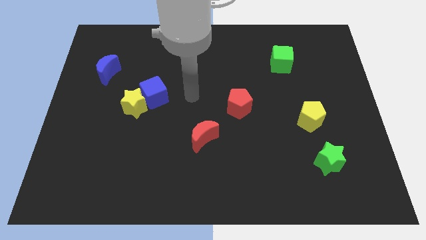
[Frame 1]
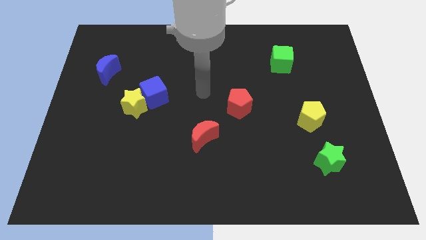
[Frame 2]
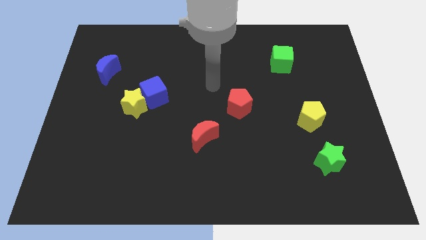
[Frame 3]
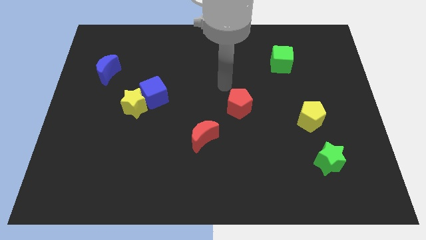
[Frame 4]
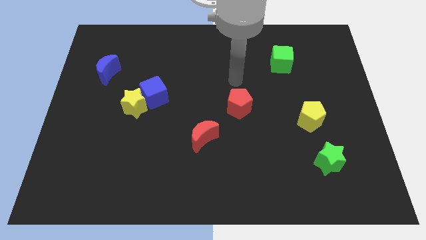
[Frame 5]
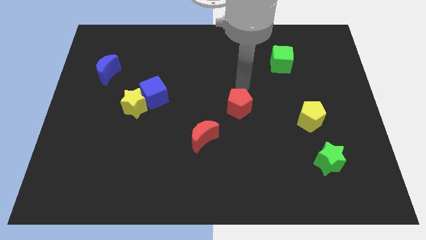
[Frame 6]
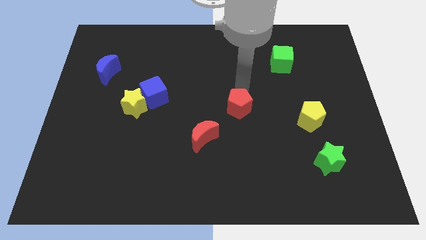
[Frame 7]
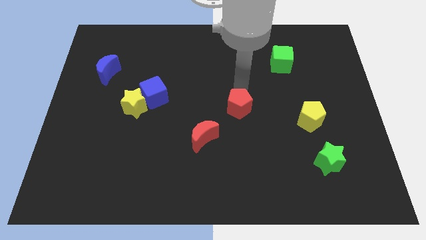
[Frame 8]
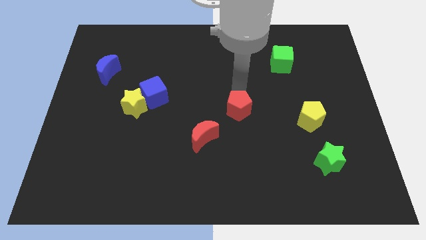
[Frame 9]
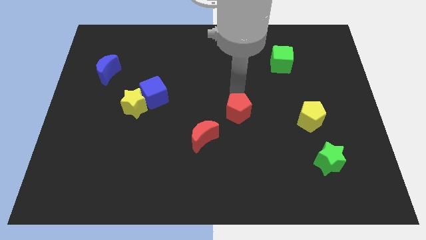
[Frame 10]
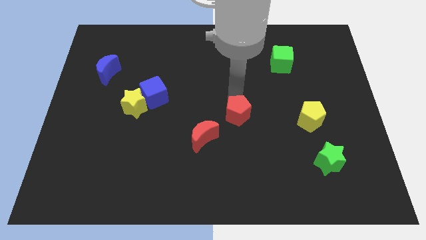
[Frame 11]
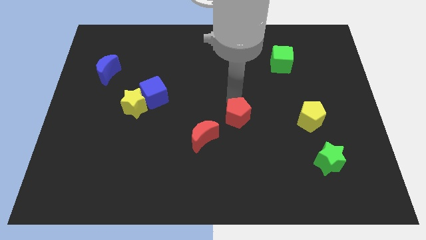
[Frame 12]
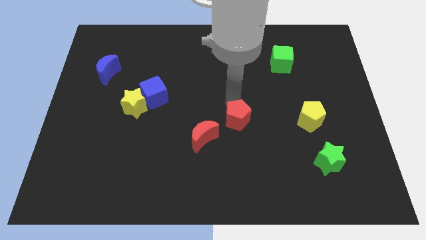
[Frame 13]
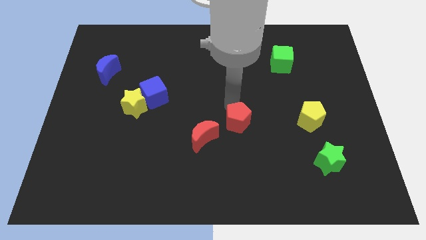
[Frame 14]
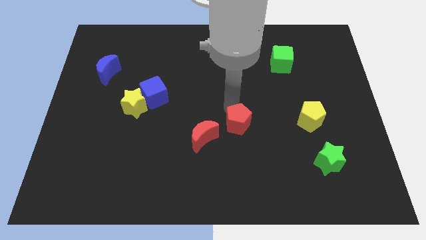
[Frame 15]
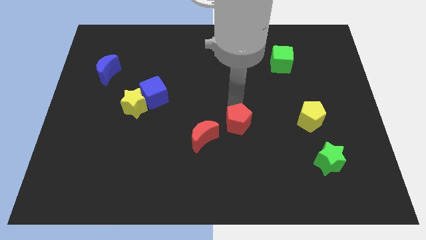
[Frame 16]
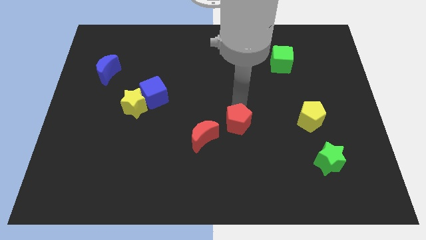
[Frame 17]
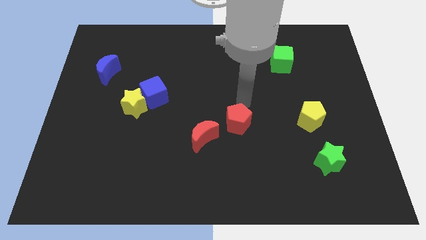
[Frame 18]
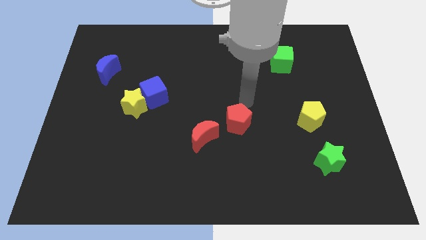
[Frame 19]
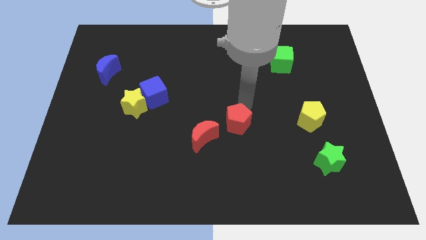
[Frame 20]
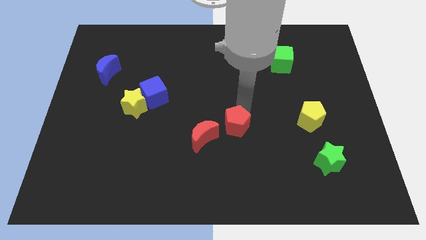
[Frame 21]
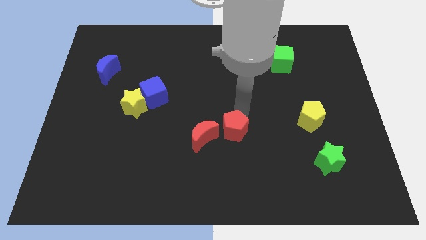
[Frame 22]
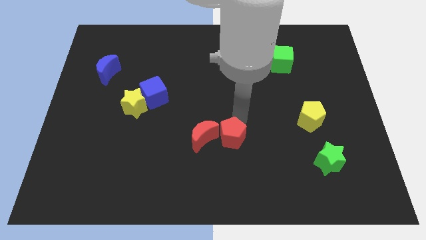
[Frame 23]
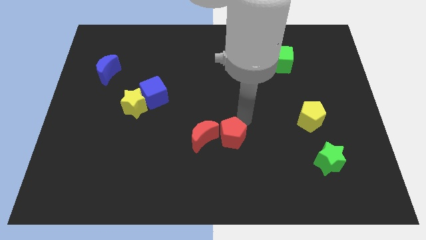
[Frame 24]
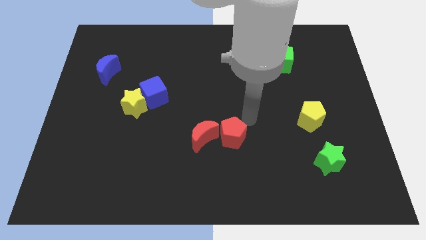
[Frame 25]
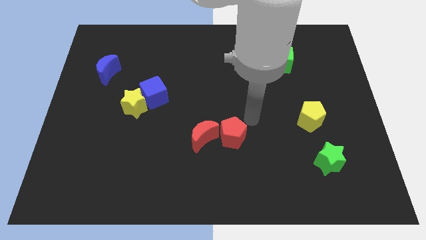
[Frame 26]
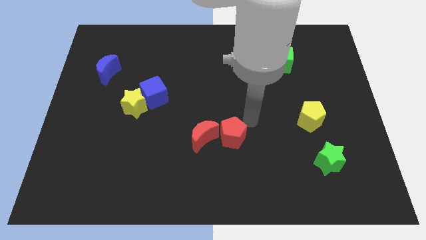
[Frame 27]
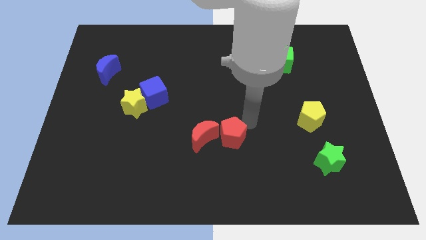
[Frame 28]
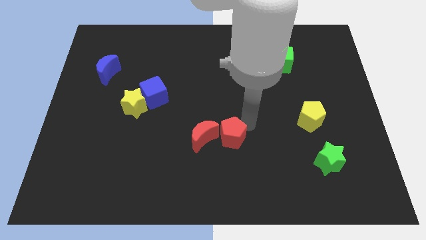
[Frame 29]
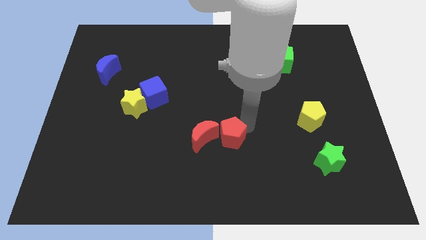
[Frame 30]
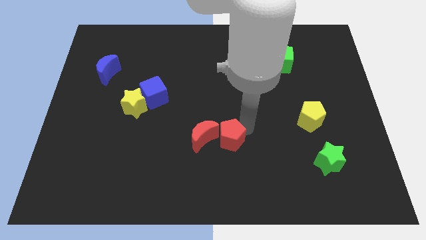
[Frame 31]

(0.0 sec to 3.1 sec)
push the red pentagon a little bit down and then to the left

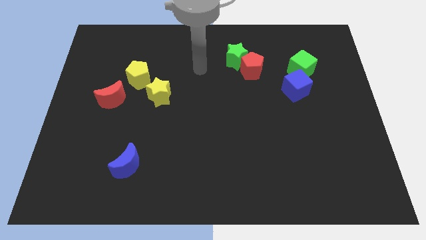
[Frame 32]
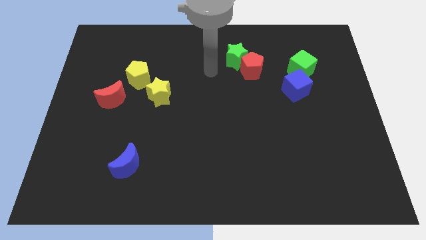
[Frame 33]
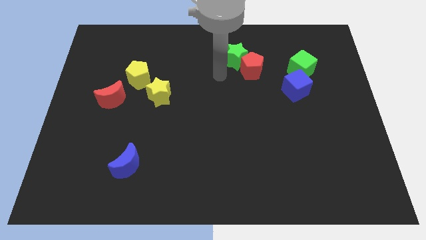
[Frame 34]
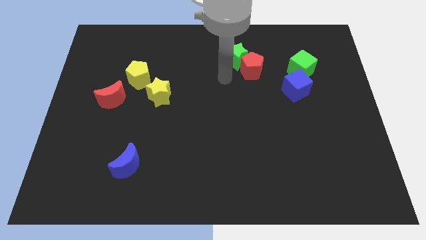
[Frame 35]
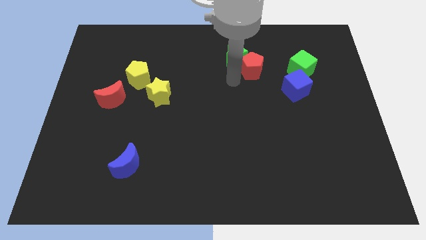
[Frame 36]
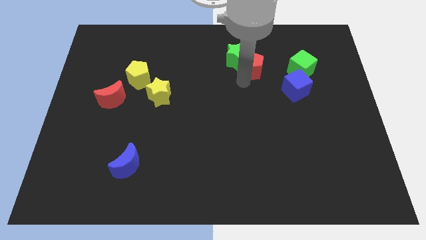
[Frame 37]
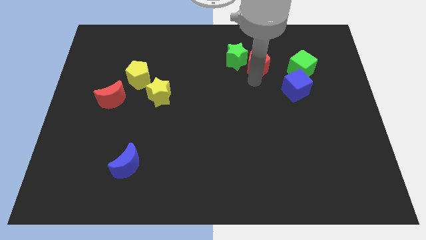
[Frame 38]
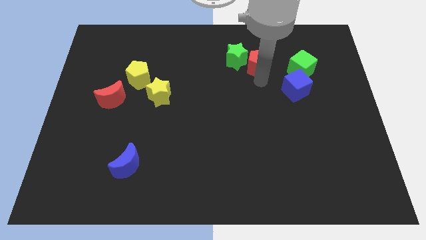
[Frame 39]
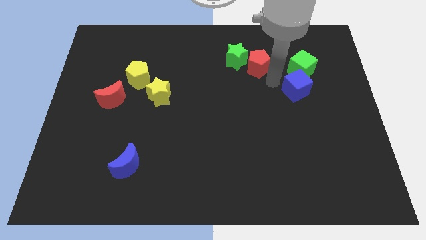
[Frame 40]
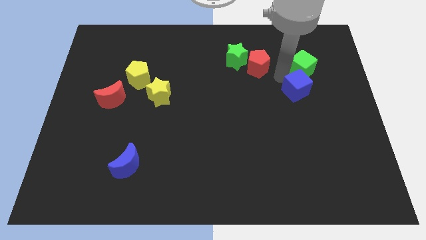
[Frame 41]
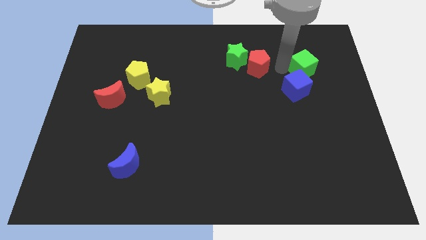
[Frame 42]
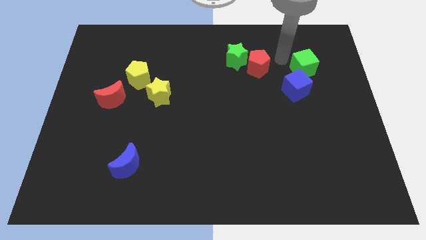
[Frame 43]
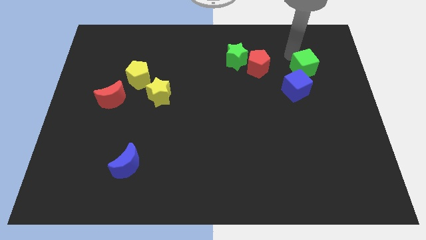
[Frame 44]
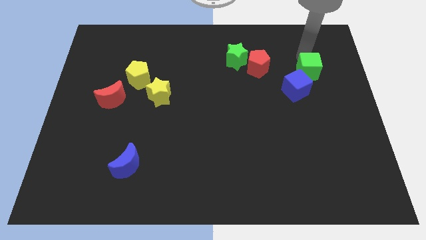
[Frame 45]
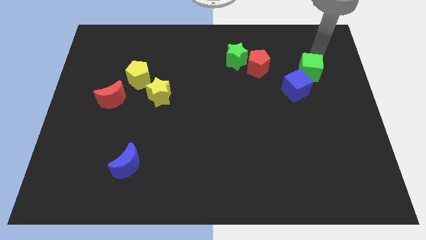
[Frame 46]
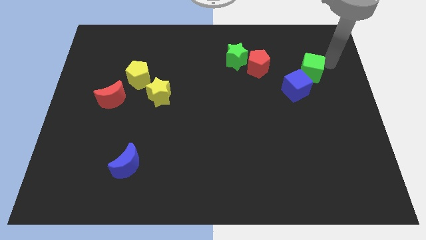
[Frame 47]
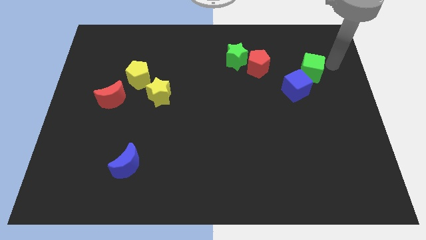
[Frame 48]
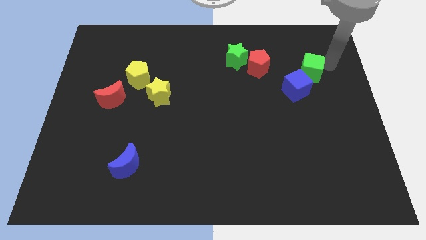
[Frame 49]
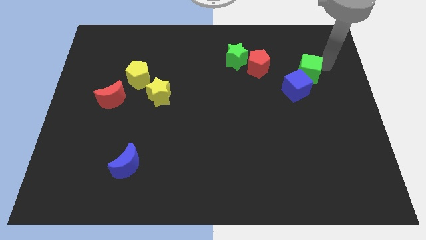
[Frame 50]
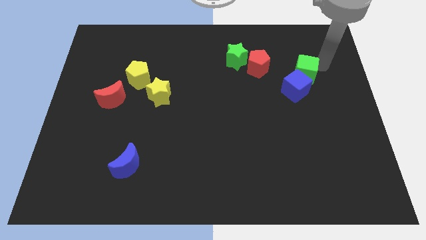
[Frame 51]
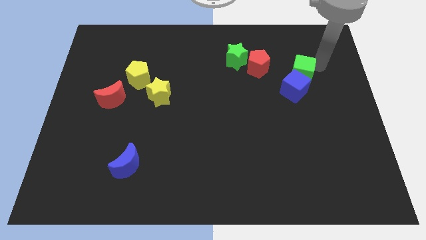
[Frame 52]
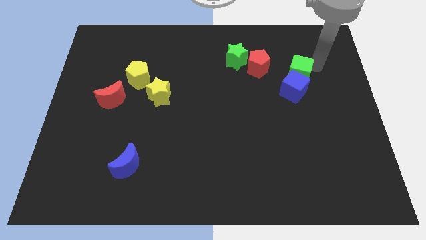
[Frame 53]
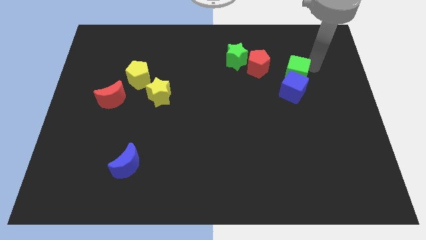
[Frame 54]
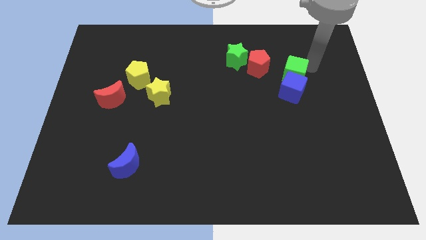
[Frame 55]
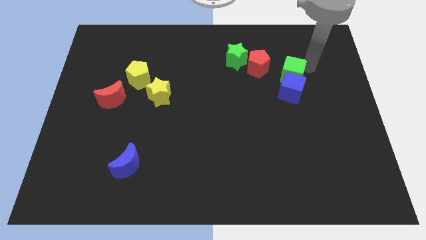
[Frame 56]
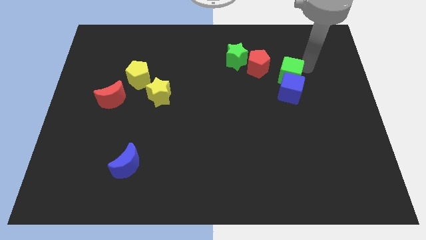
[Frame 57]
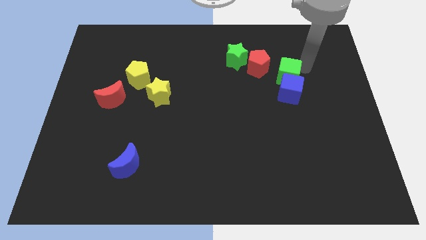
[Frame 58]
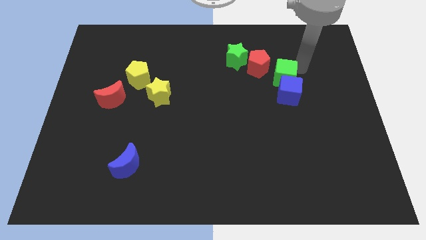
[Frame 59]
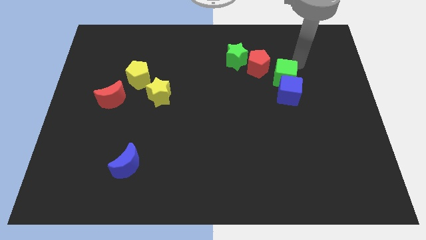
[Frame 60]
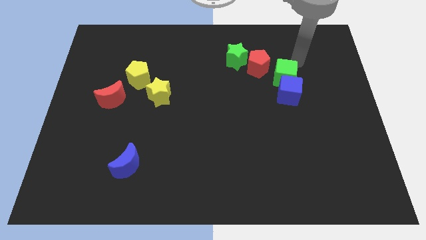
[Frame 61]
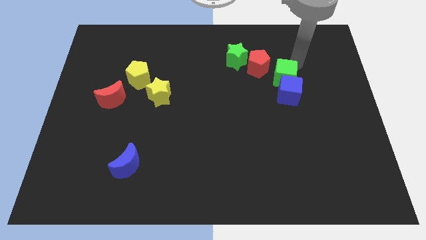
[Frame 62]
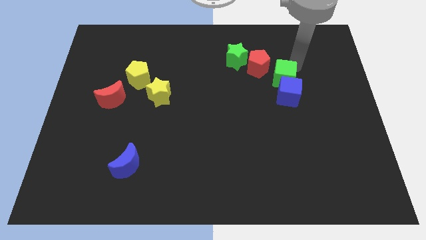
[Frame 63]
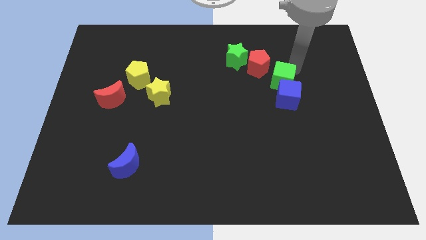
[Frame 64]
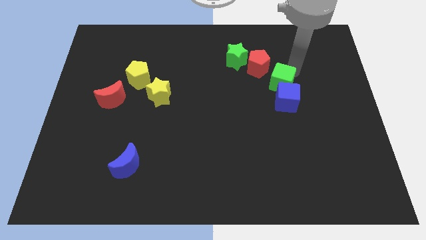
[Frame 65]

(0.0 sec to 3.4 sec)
move the green cube down and left a little

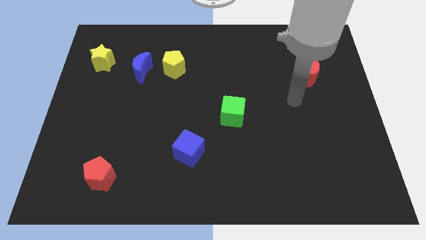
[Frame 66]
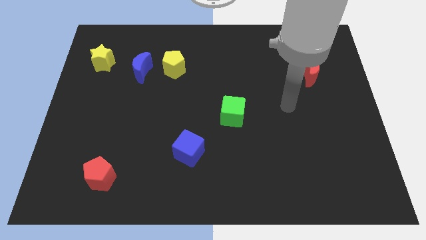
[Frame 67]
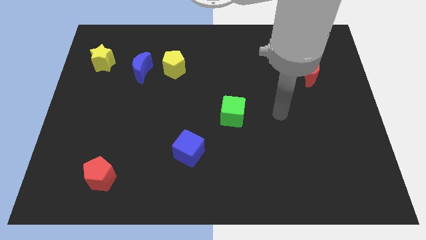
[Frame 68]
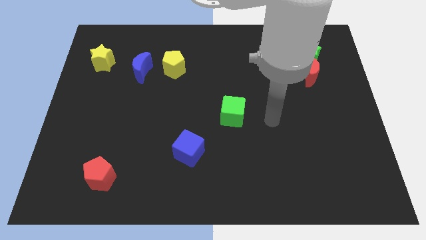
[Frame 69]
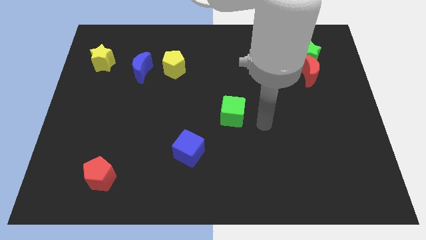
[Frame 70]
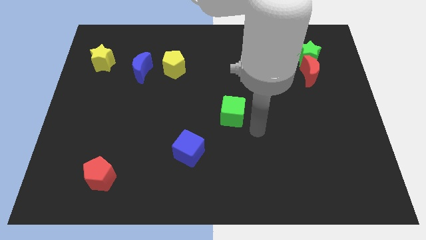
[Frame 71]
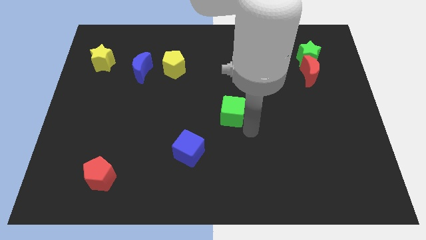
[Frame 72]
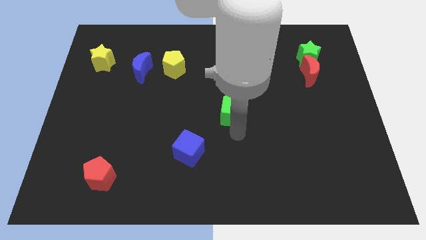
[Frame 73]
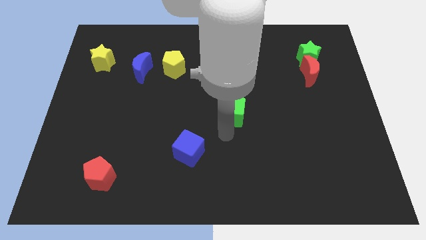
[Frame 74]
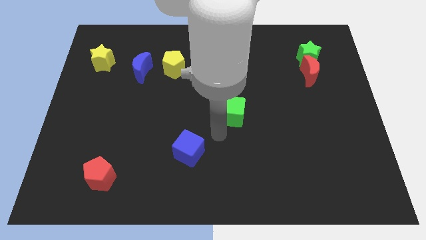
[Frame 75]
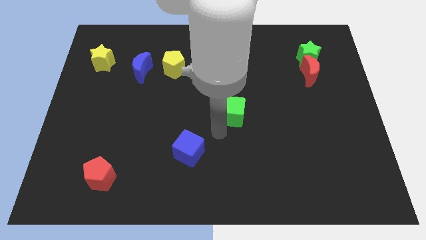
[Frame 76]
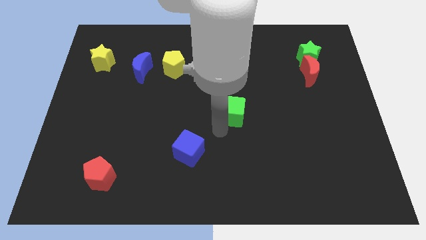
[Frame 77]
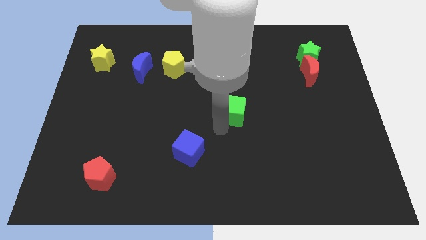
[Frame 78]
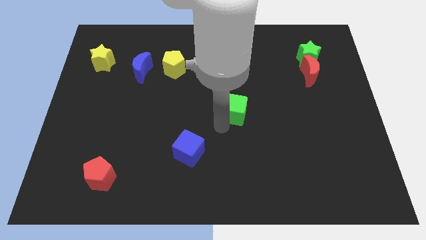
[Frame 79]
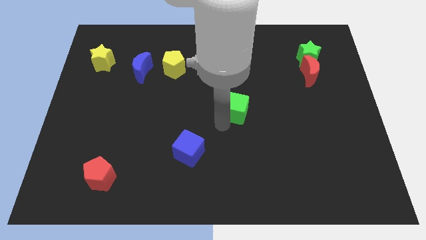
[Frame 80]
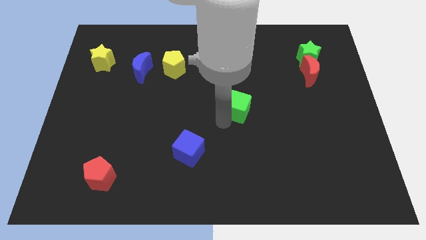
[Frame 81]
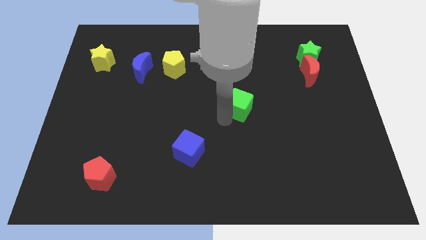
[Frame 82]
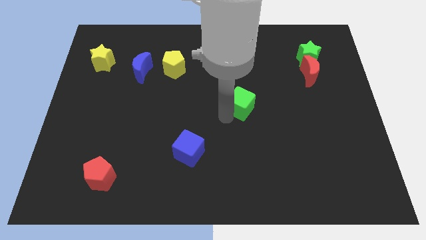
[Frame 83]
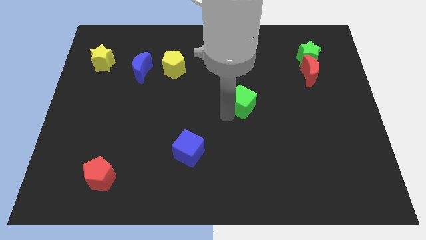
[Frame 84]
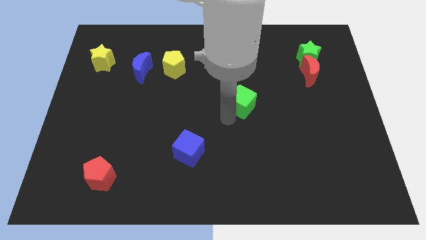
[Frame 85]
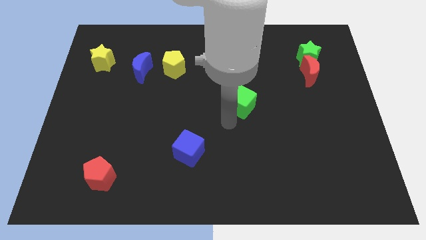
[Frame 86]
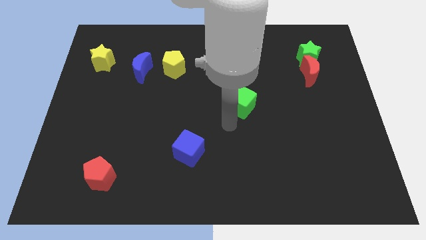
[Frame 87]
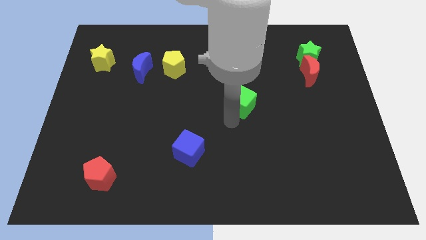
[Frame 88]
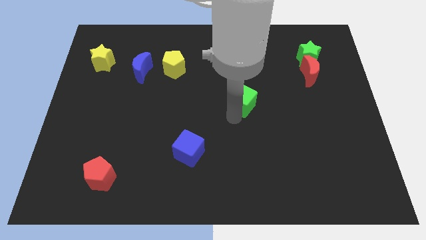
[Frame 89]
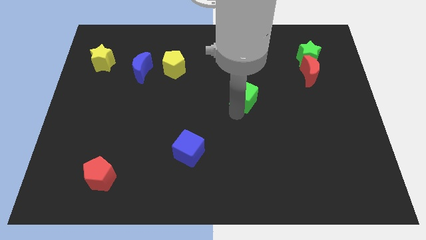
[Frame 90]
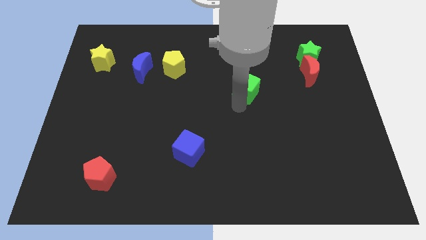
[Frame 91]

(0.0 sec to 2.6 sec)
slide the green cube upwards and then to the right a little bit
